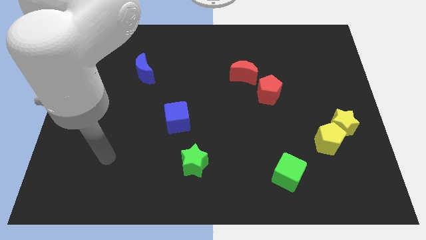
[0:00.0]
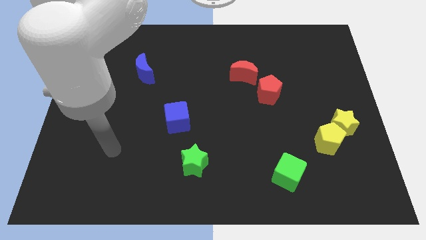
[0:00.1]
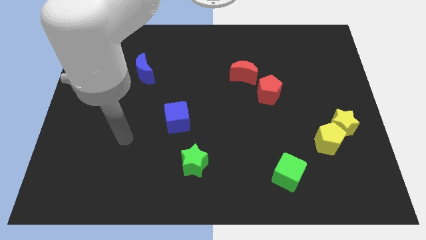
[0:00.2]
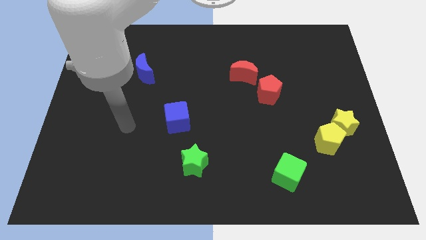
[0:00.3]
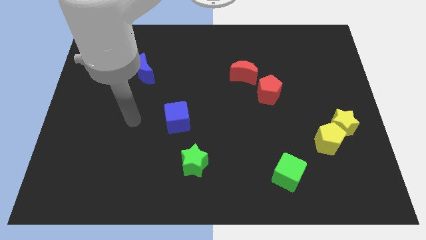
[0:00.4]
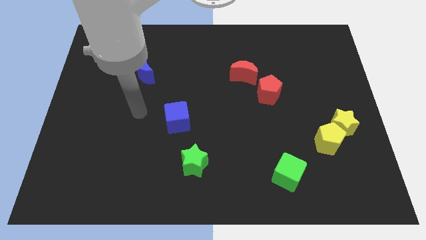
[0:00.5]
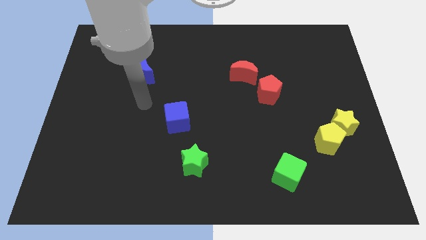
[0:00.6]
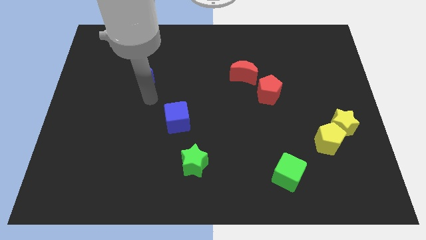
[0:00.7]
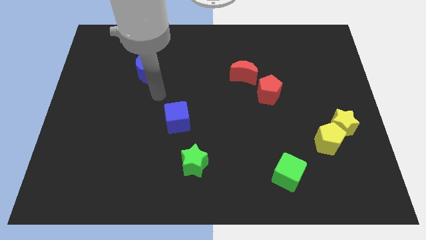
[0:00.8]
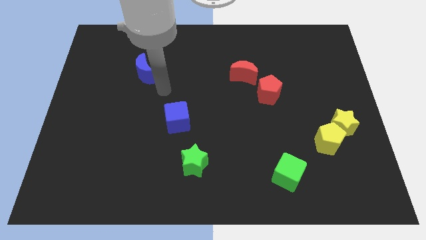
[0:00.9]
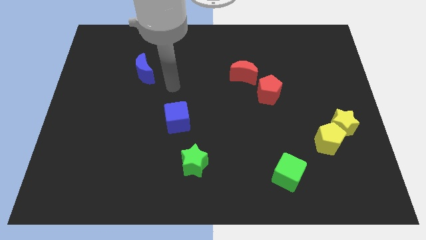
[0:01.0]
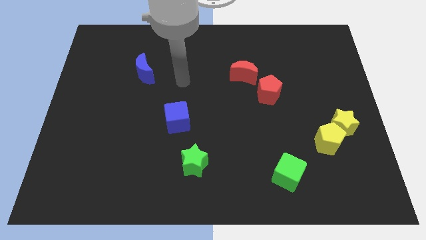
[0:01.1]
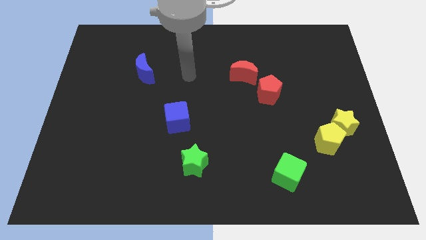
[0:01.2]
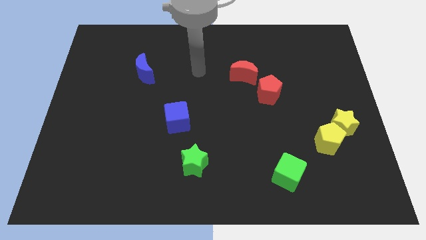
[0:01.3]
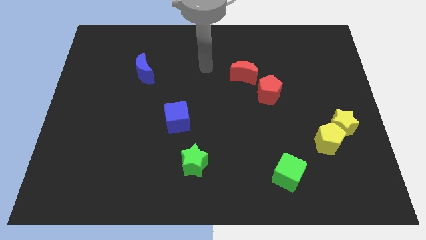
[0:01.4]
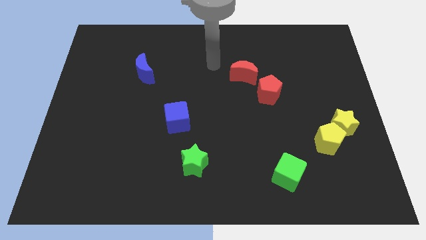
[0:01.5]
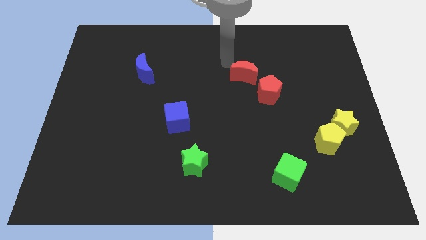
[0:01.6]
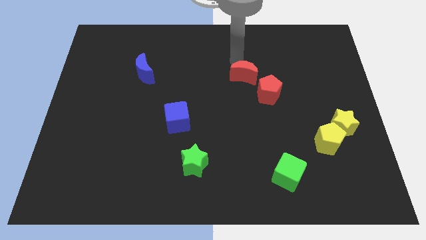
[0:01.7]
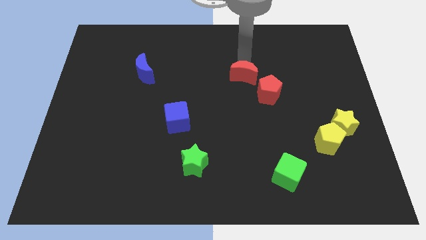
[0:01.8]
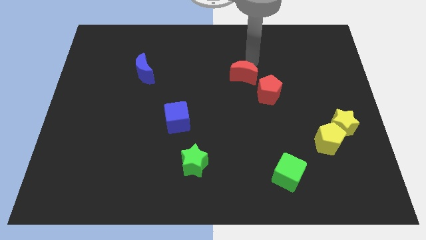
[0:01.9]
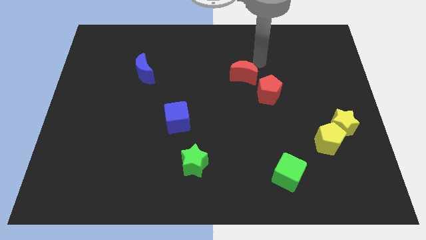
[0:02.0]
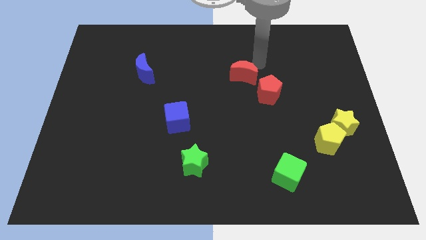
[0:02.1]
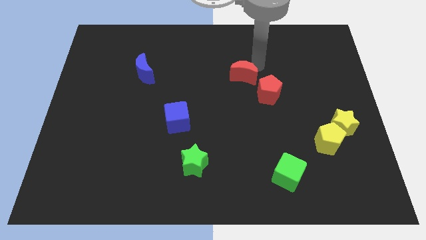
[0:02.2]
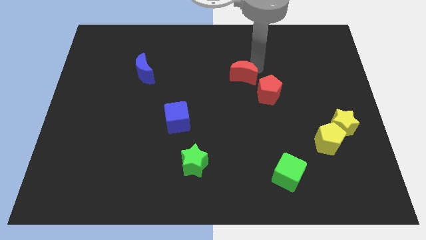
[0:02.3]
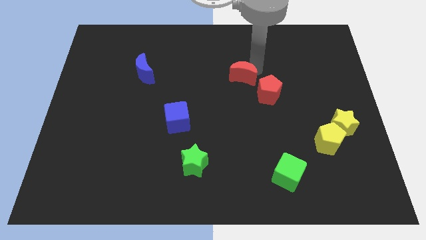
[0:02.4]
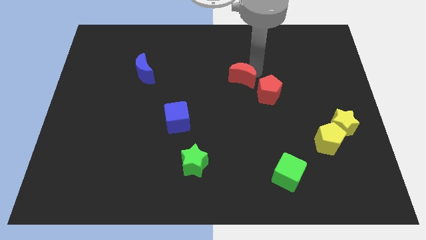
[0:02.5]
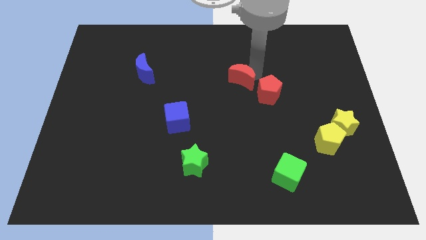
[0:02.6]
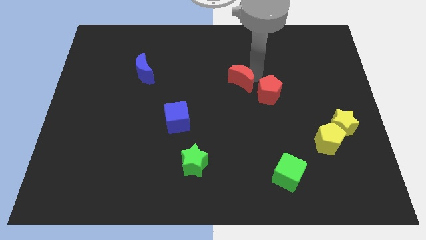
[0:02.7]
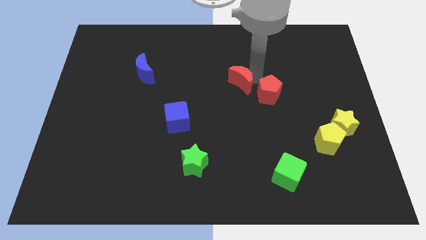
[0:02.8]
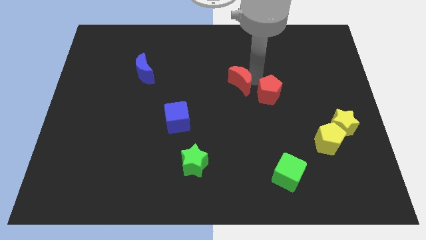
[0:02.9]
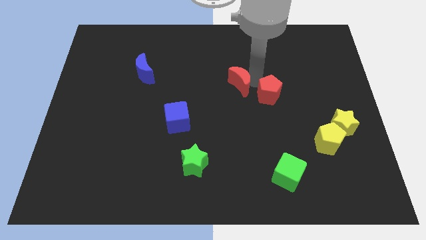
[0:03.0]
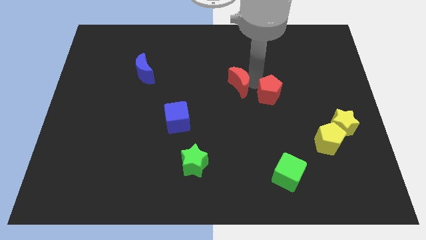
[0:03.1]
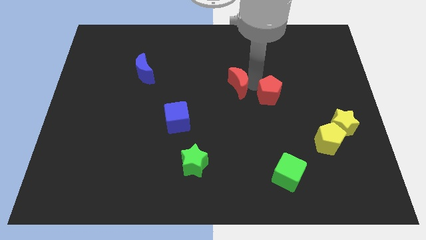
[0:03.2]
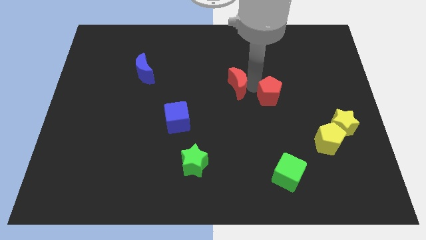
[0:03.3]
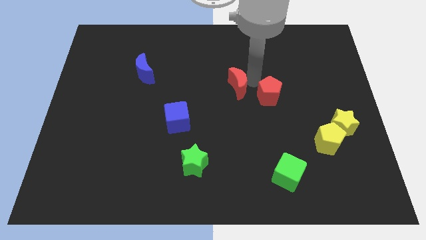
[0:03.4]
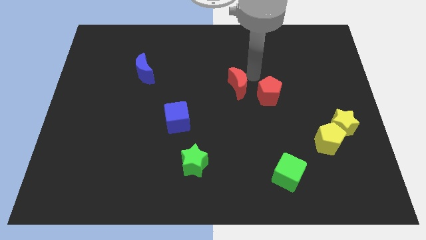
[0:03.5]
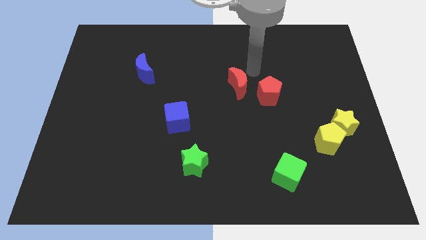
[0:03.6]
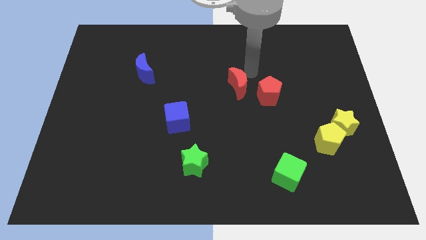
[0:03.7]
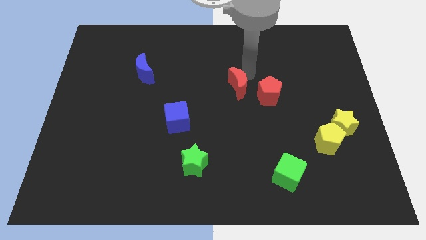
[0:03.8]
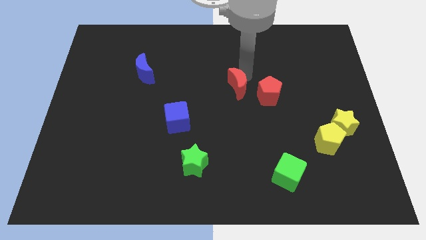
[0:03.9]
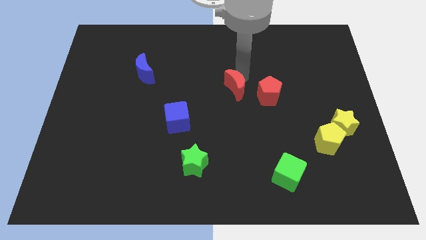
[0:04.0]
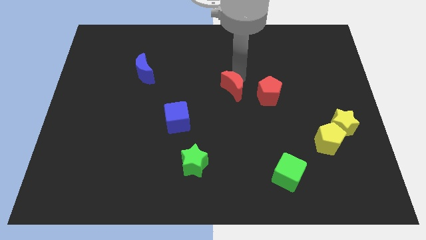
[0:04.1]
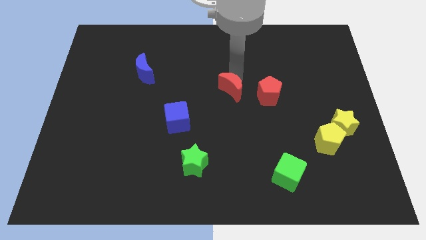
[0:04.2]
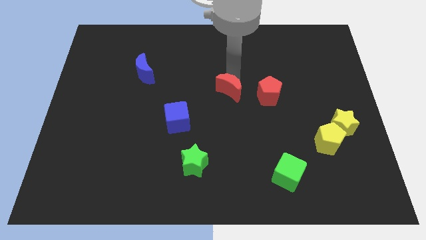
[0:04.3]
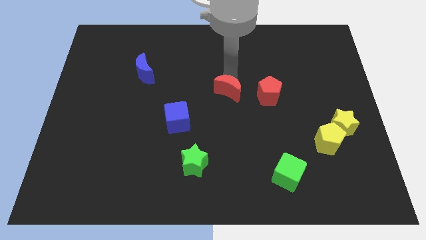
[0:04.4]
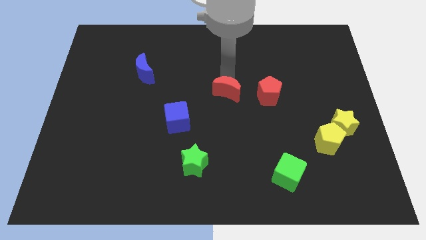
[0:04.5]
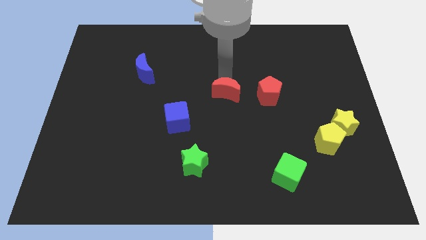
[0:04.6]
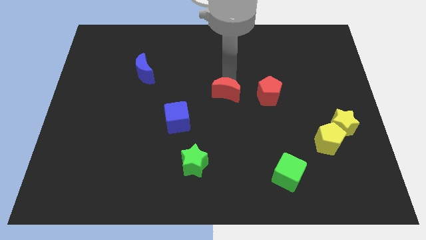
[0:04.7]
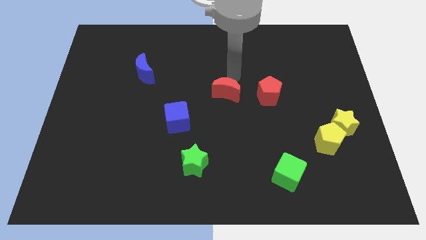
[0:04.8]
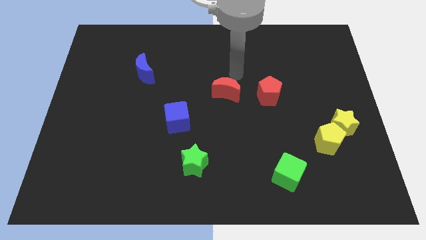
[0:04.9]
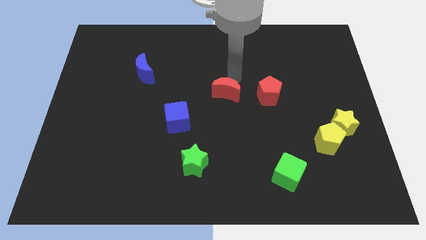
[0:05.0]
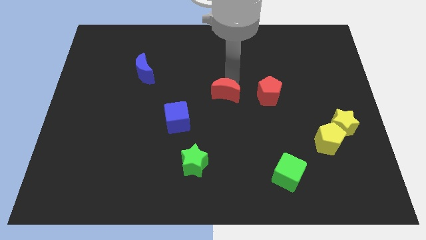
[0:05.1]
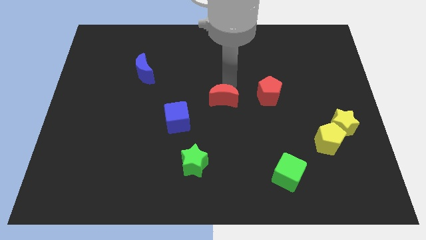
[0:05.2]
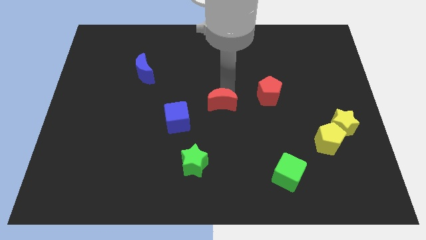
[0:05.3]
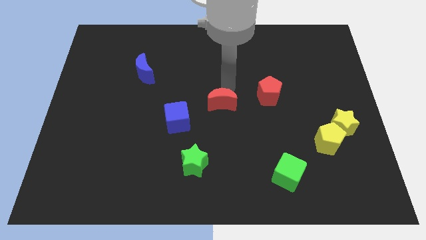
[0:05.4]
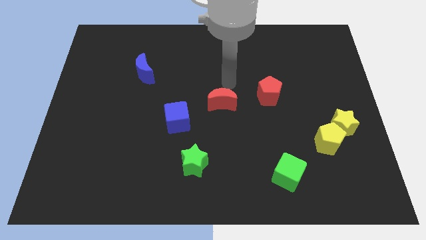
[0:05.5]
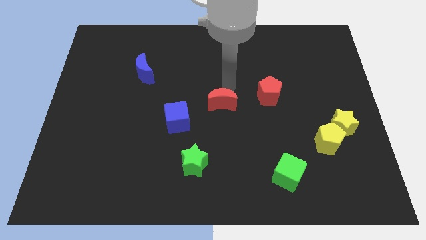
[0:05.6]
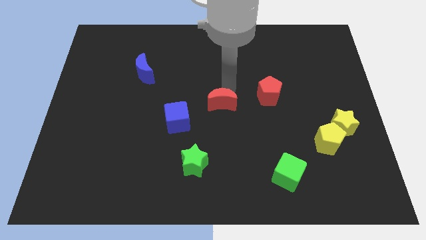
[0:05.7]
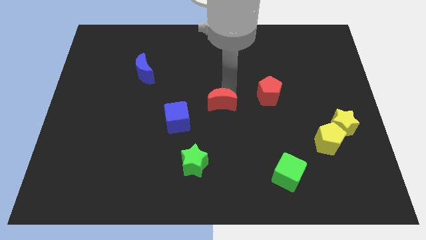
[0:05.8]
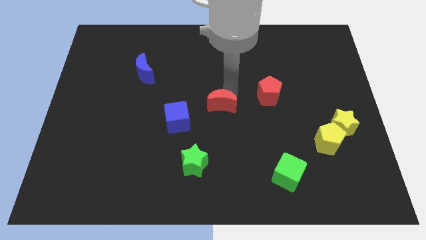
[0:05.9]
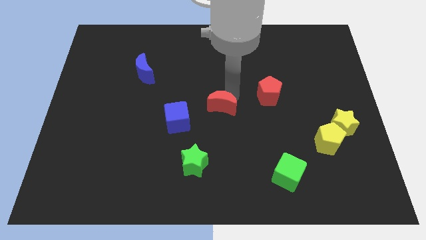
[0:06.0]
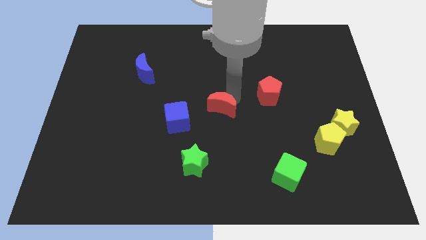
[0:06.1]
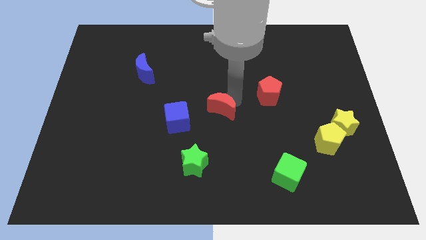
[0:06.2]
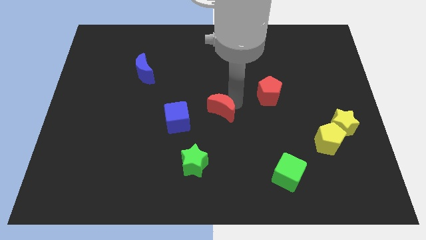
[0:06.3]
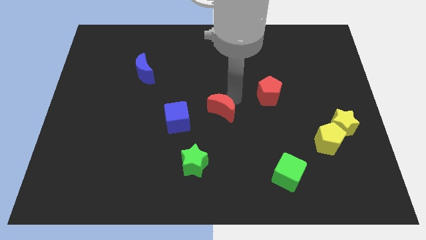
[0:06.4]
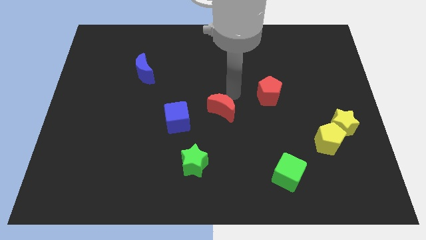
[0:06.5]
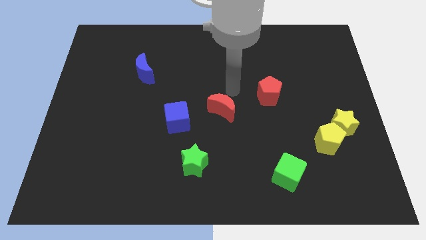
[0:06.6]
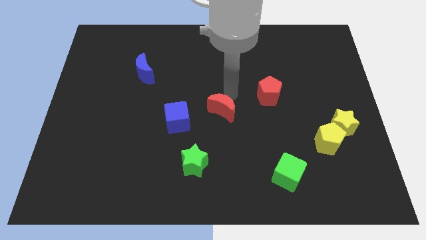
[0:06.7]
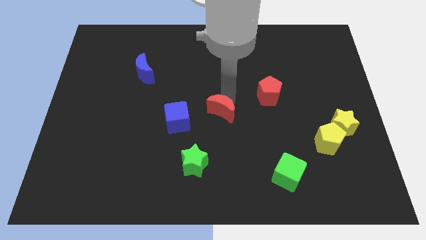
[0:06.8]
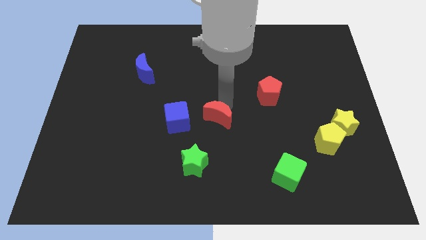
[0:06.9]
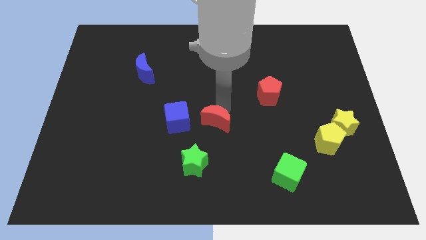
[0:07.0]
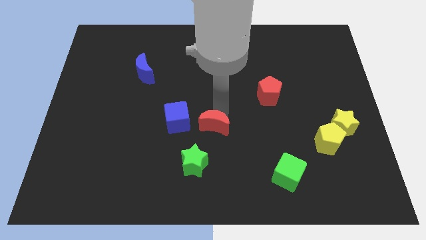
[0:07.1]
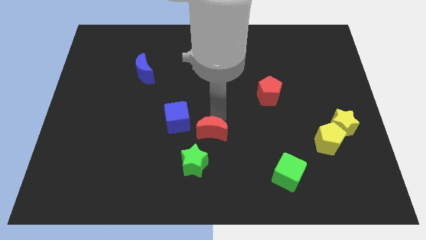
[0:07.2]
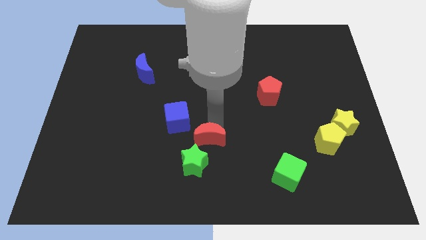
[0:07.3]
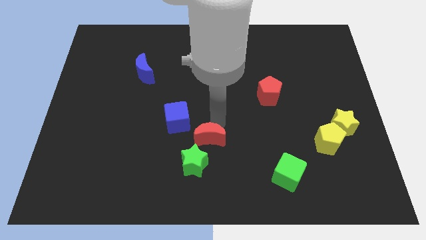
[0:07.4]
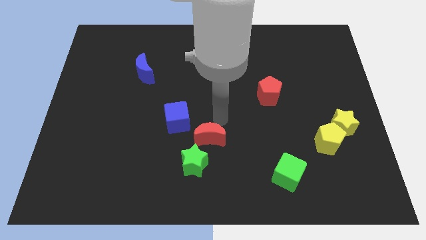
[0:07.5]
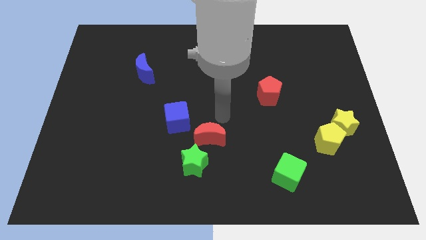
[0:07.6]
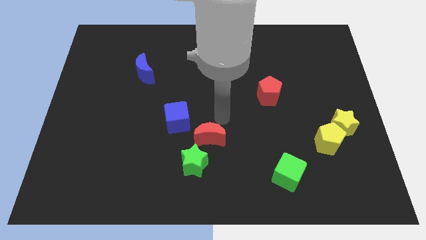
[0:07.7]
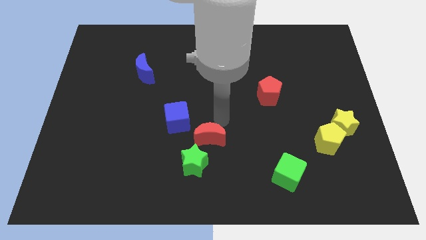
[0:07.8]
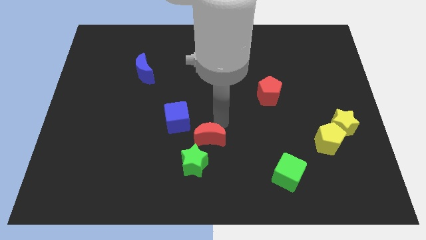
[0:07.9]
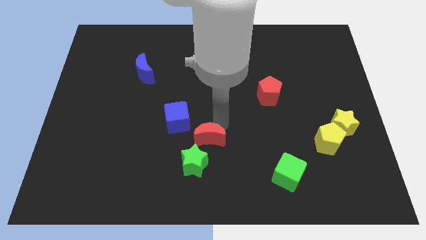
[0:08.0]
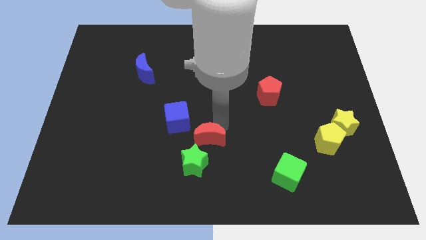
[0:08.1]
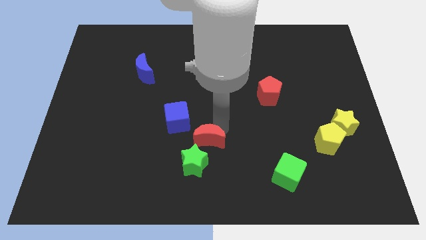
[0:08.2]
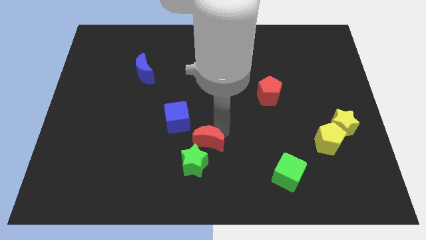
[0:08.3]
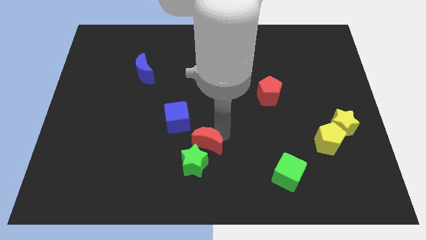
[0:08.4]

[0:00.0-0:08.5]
put the red moon close to the green star
